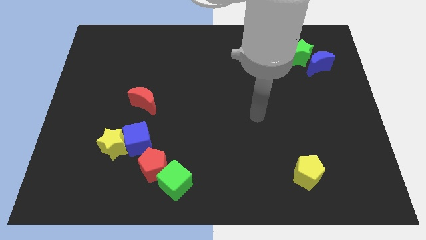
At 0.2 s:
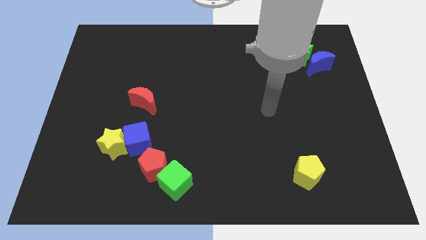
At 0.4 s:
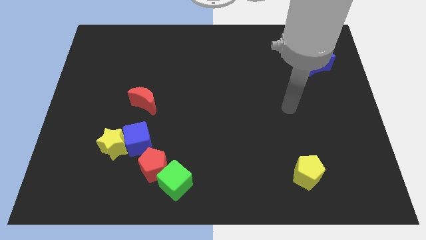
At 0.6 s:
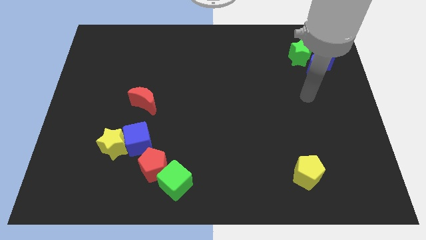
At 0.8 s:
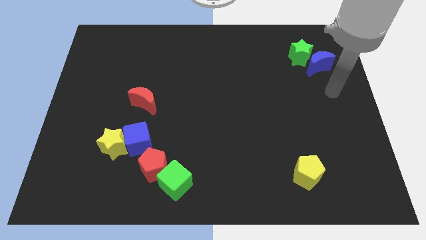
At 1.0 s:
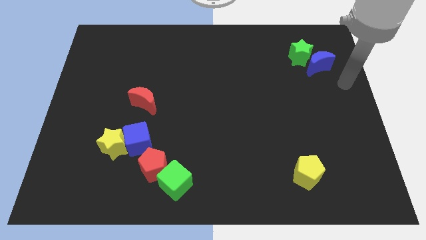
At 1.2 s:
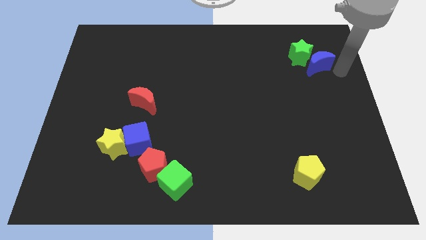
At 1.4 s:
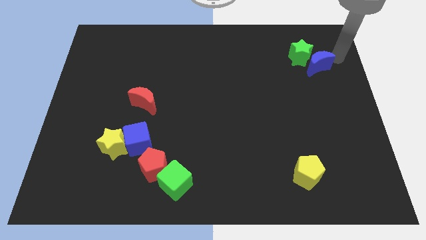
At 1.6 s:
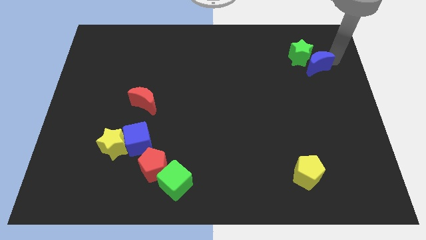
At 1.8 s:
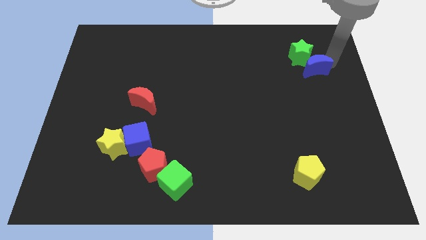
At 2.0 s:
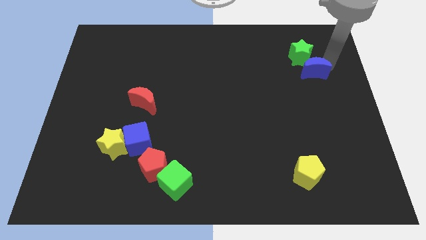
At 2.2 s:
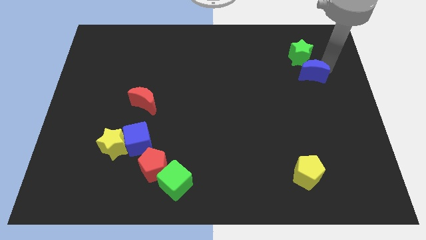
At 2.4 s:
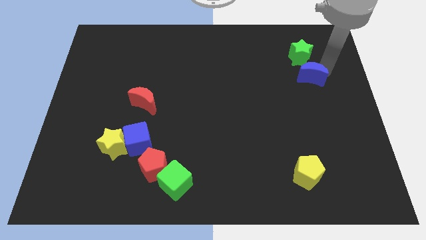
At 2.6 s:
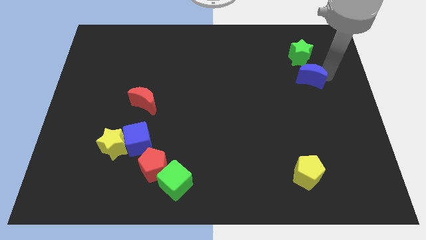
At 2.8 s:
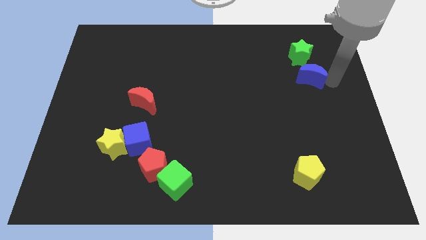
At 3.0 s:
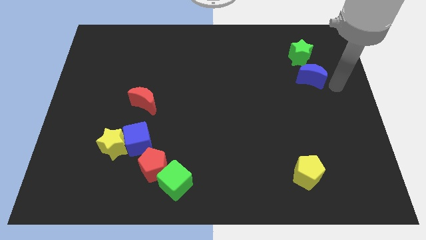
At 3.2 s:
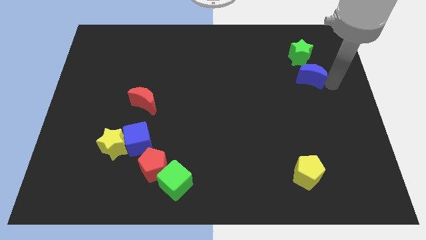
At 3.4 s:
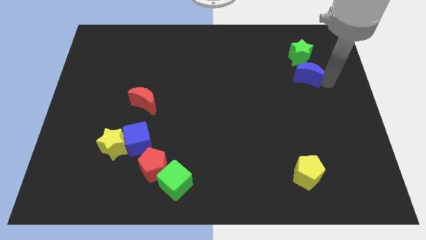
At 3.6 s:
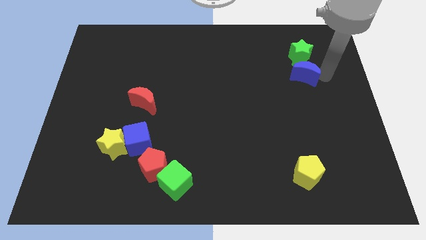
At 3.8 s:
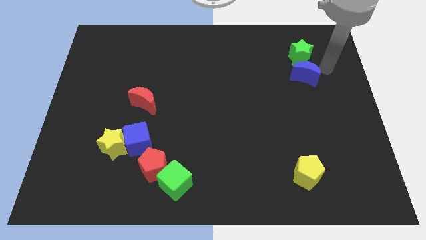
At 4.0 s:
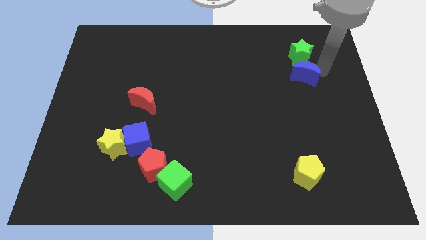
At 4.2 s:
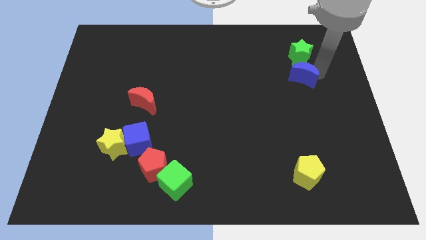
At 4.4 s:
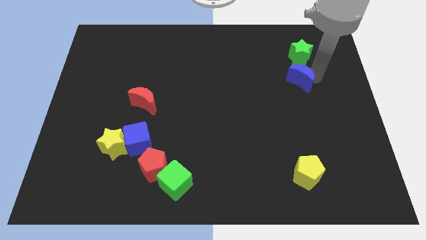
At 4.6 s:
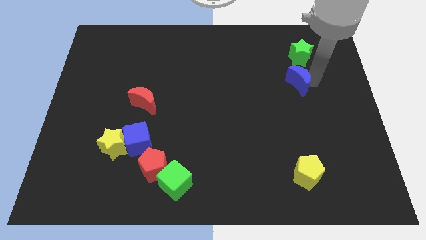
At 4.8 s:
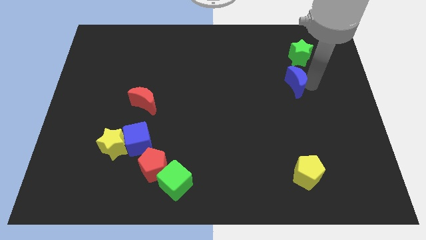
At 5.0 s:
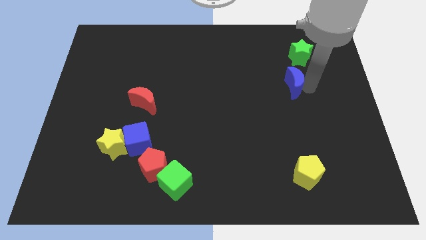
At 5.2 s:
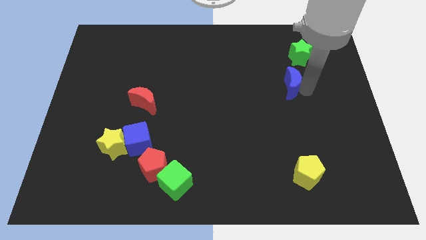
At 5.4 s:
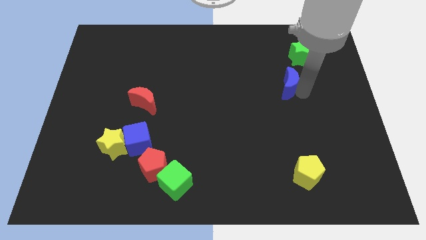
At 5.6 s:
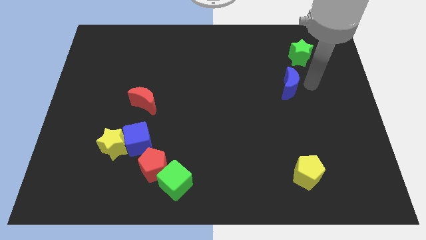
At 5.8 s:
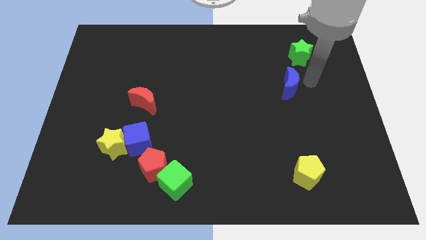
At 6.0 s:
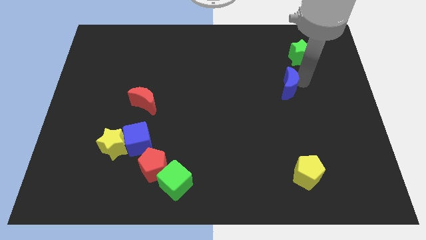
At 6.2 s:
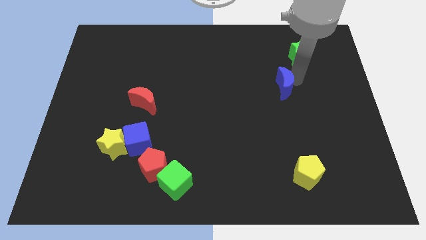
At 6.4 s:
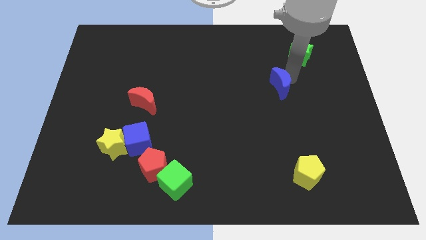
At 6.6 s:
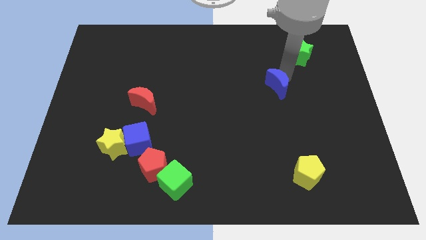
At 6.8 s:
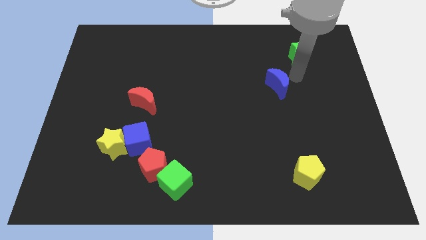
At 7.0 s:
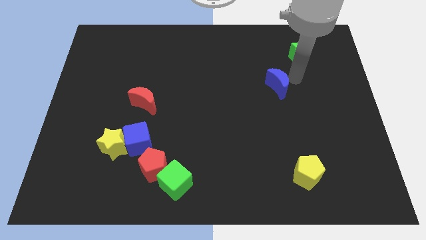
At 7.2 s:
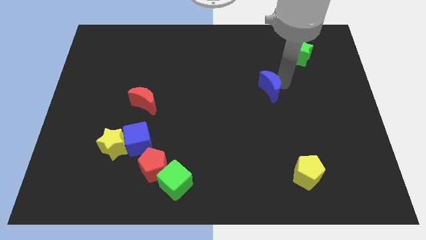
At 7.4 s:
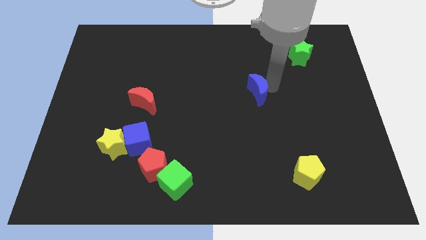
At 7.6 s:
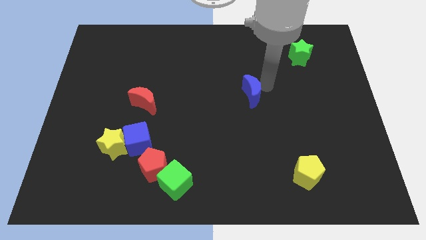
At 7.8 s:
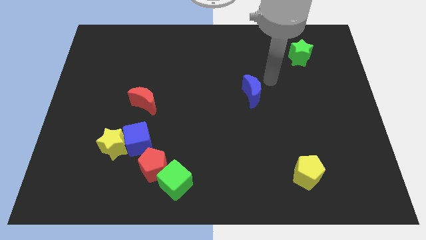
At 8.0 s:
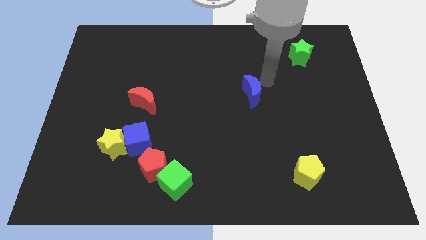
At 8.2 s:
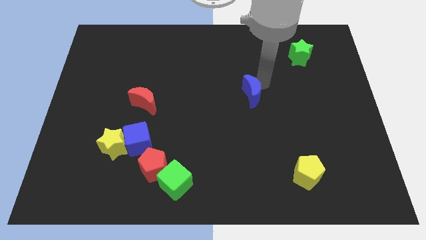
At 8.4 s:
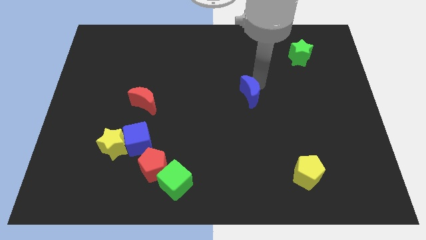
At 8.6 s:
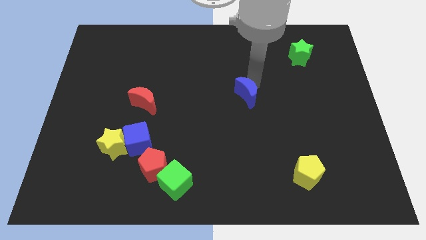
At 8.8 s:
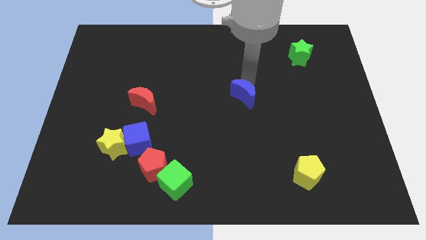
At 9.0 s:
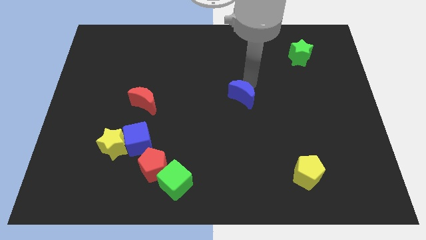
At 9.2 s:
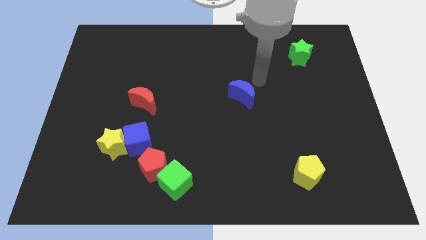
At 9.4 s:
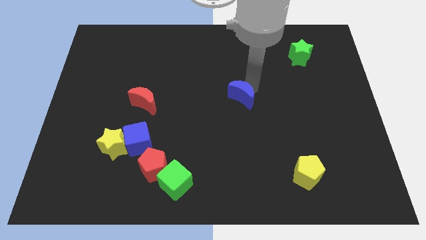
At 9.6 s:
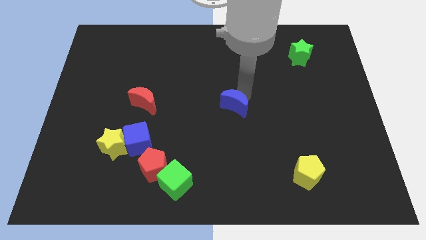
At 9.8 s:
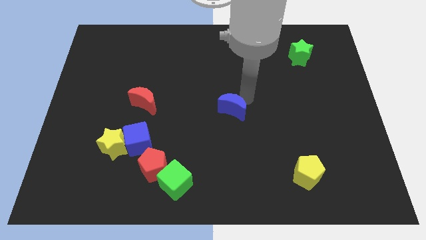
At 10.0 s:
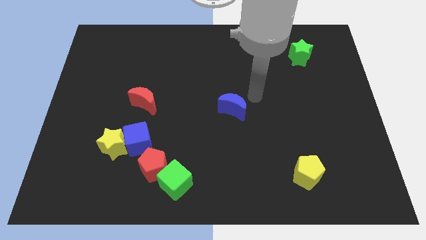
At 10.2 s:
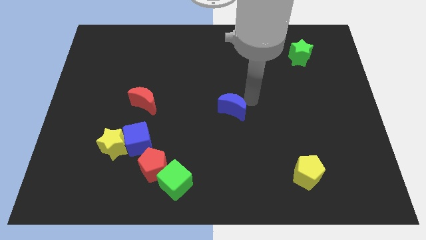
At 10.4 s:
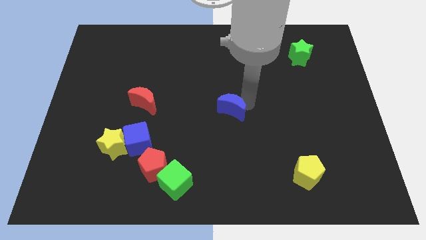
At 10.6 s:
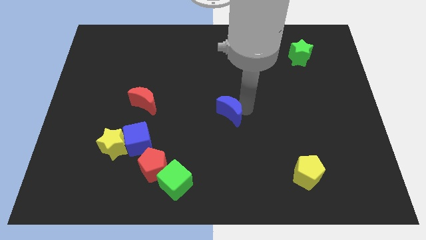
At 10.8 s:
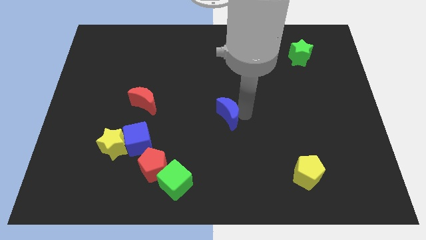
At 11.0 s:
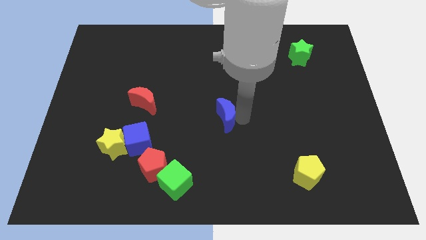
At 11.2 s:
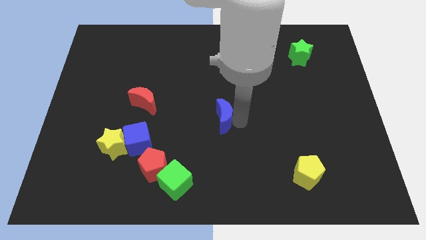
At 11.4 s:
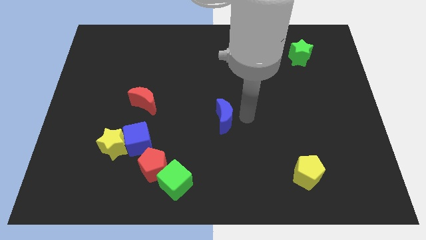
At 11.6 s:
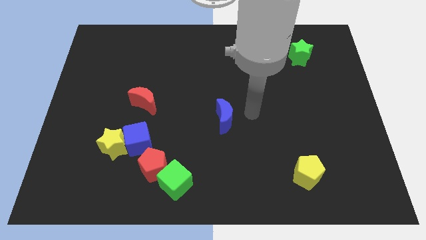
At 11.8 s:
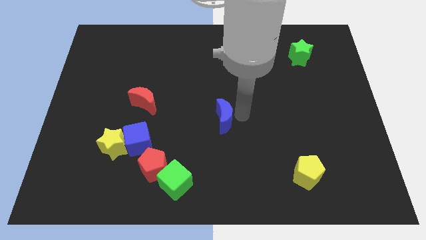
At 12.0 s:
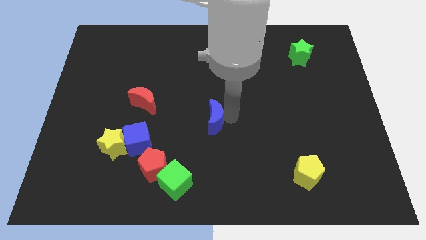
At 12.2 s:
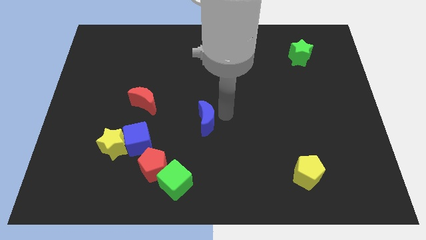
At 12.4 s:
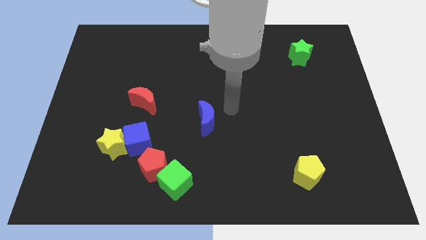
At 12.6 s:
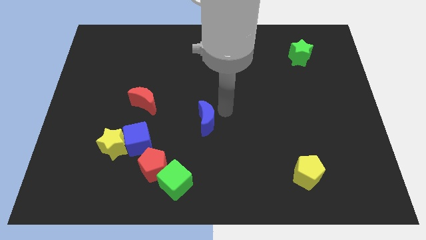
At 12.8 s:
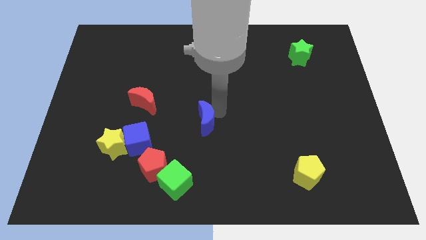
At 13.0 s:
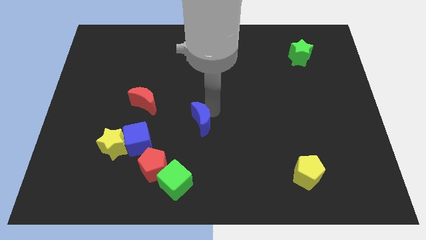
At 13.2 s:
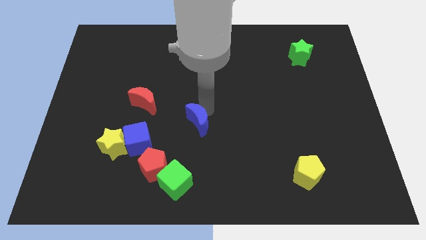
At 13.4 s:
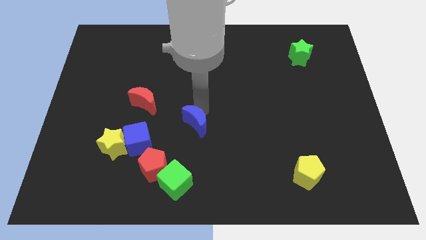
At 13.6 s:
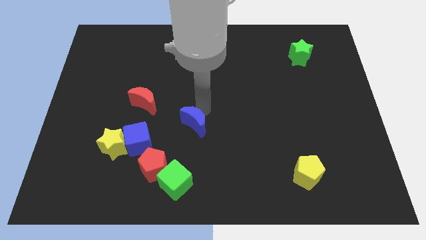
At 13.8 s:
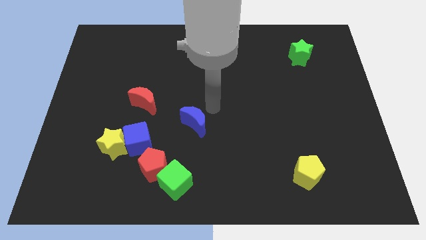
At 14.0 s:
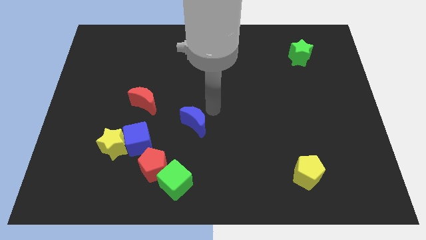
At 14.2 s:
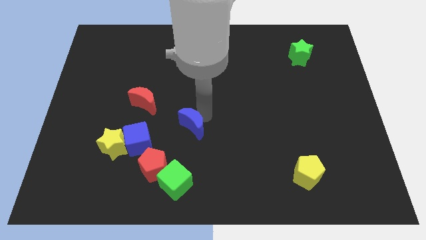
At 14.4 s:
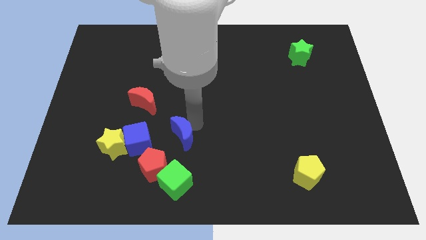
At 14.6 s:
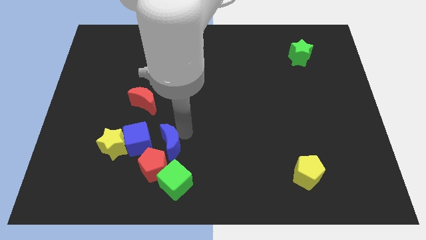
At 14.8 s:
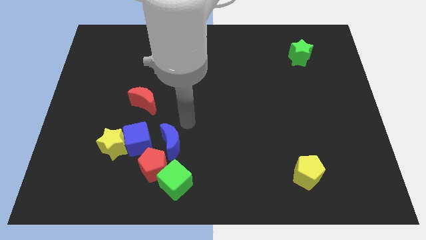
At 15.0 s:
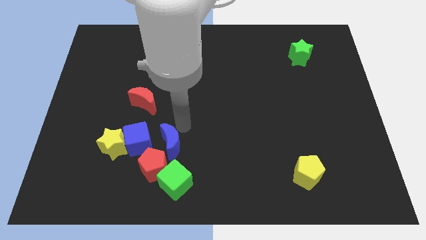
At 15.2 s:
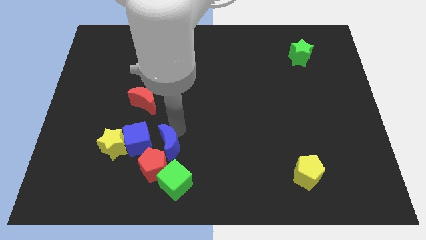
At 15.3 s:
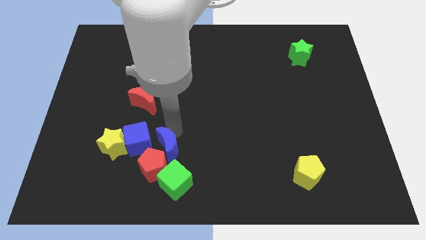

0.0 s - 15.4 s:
push the blue moon close to the red pentagon

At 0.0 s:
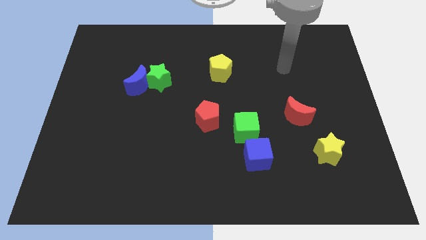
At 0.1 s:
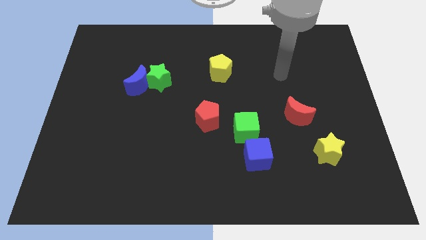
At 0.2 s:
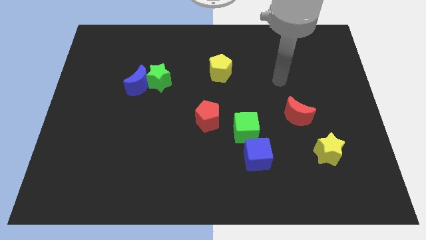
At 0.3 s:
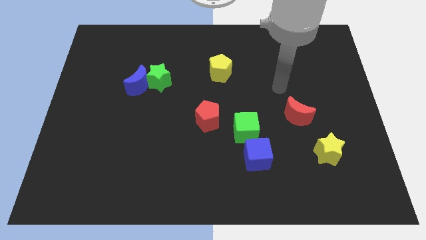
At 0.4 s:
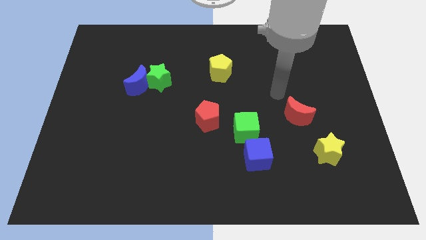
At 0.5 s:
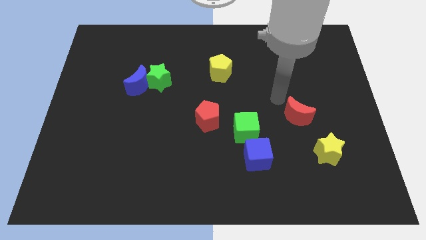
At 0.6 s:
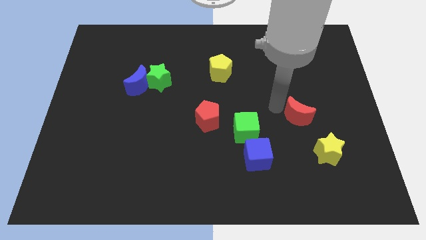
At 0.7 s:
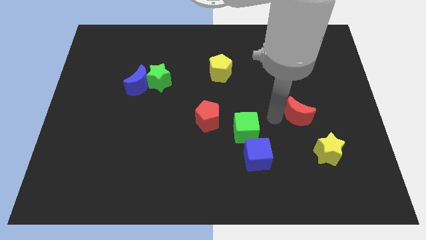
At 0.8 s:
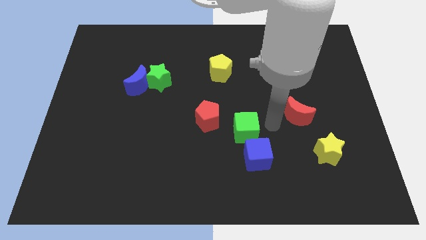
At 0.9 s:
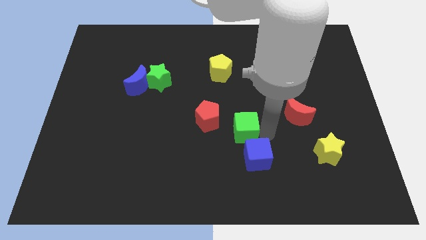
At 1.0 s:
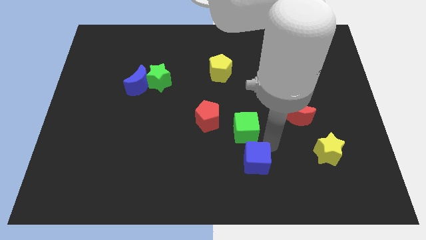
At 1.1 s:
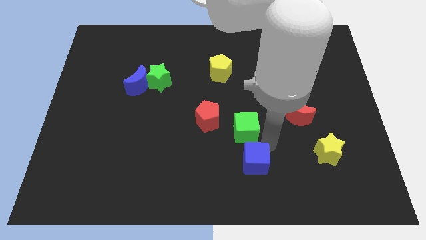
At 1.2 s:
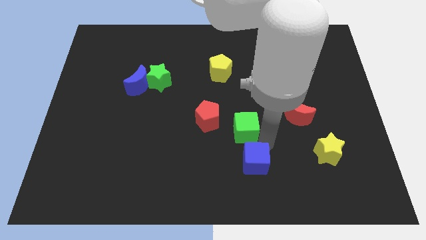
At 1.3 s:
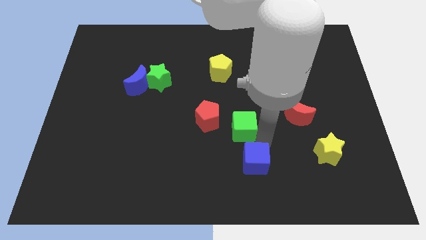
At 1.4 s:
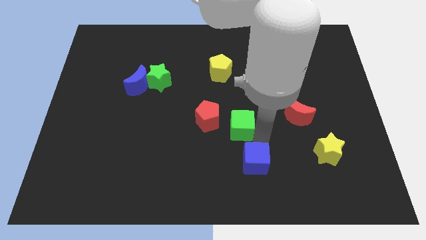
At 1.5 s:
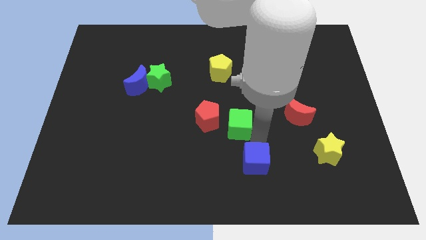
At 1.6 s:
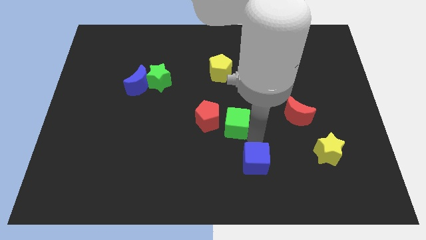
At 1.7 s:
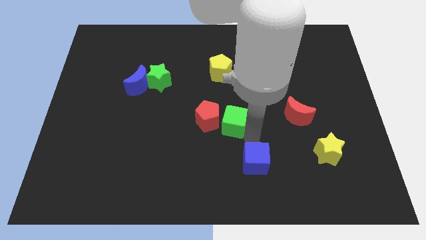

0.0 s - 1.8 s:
move the green cube next to the red pentagon
